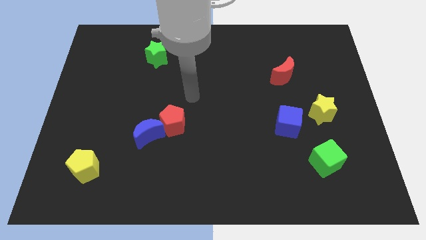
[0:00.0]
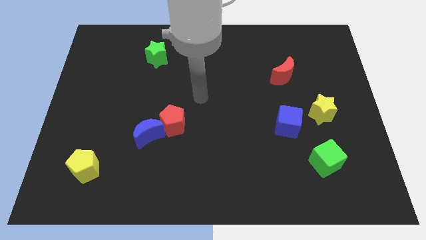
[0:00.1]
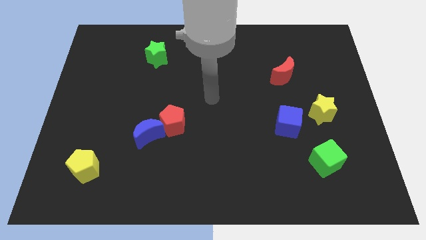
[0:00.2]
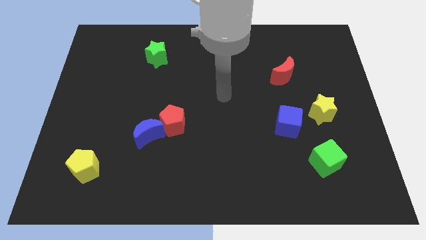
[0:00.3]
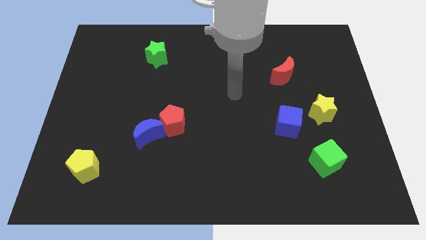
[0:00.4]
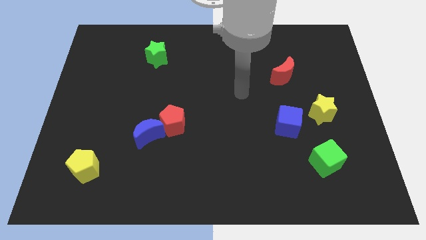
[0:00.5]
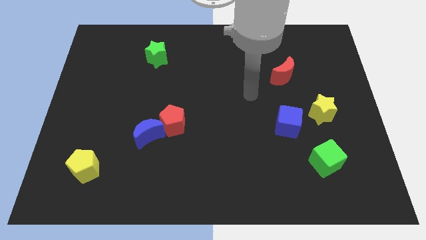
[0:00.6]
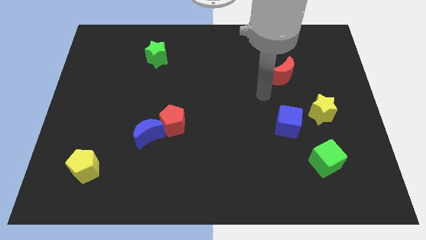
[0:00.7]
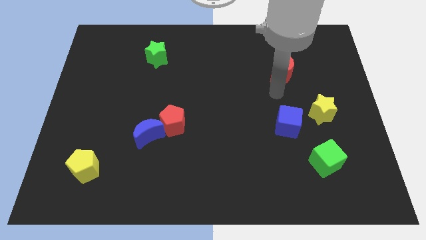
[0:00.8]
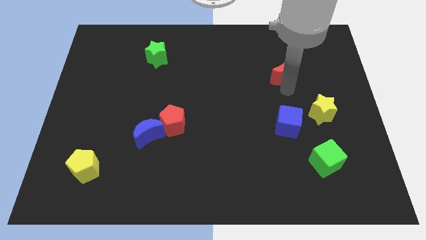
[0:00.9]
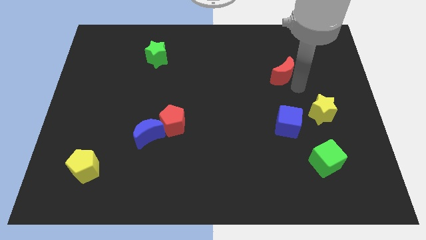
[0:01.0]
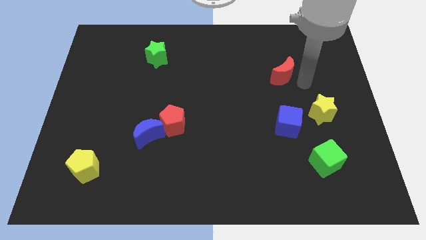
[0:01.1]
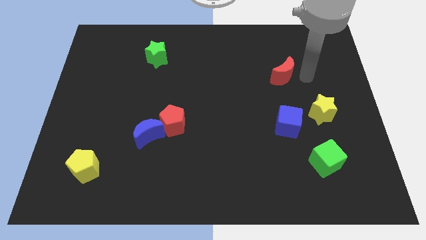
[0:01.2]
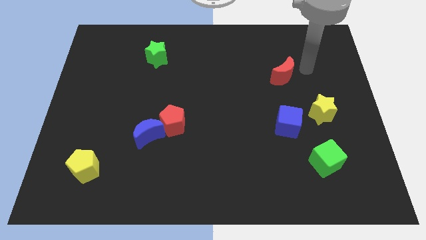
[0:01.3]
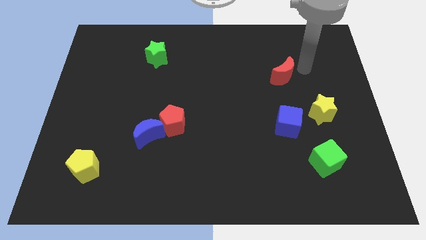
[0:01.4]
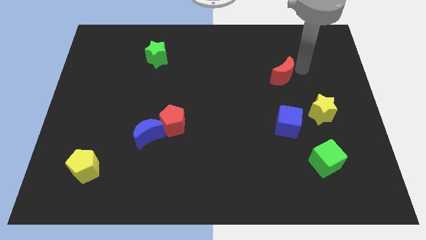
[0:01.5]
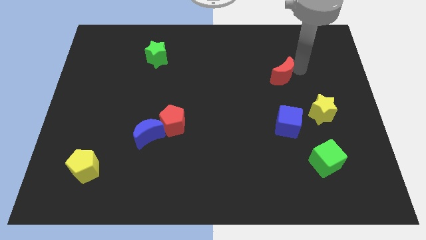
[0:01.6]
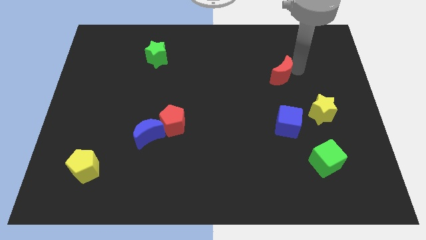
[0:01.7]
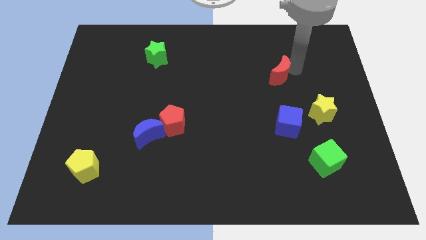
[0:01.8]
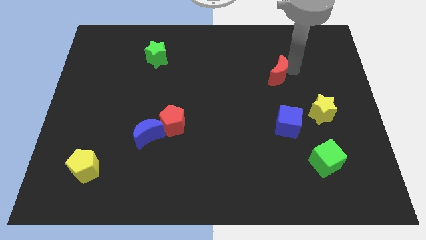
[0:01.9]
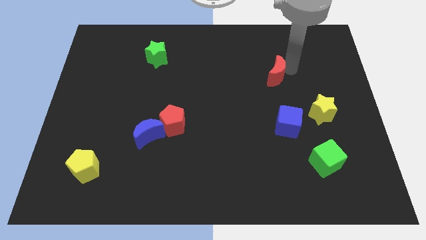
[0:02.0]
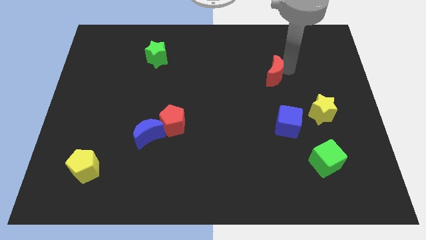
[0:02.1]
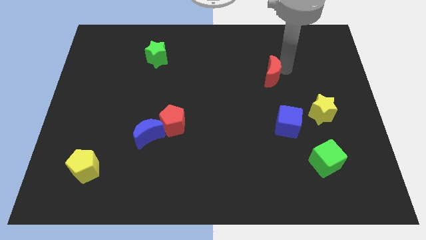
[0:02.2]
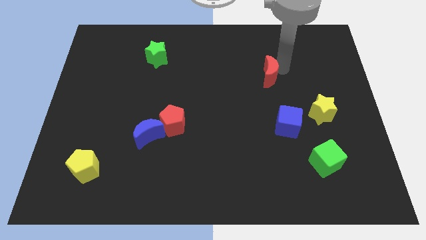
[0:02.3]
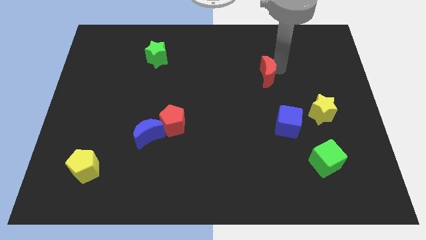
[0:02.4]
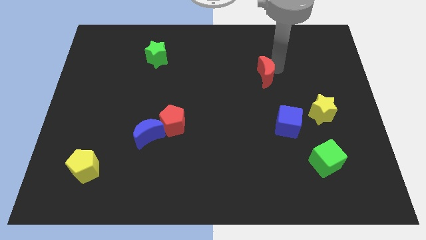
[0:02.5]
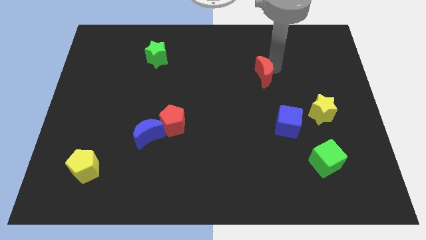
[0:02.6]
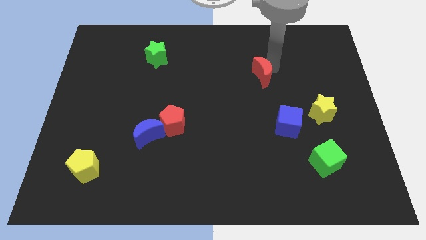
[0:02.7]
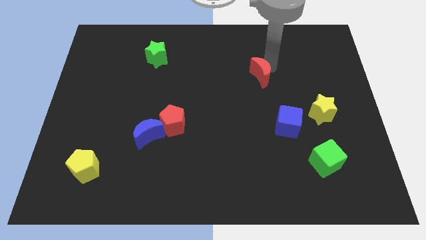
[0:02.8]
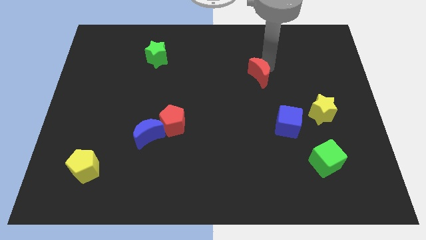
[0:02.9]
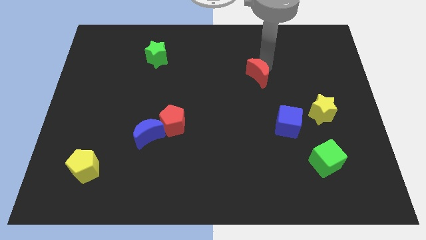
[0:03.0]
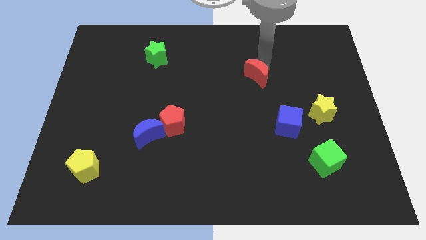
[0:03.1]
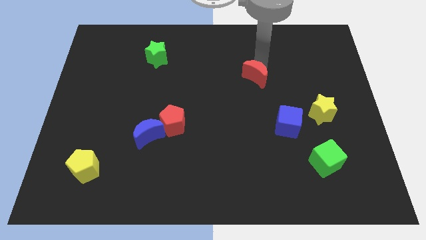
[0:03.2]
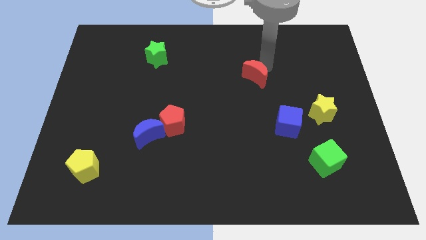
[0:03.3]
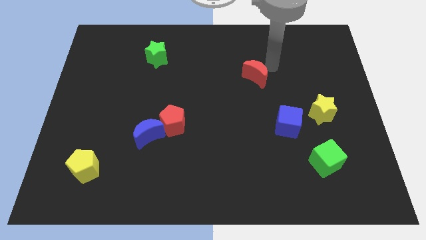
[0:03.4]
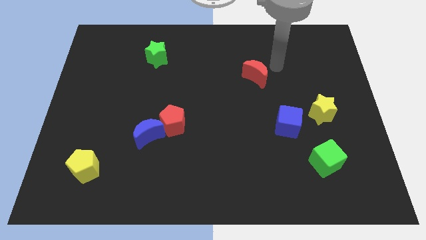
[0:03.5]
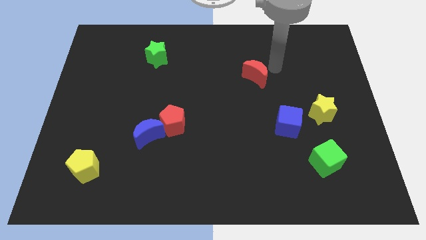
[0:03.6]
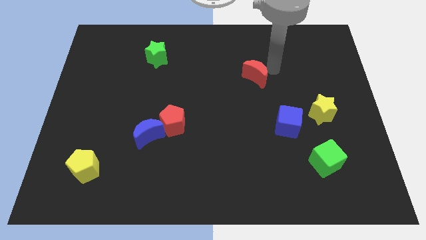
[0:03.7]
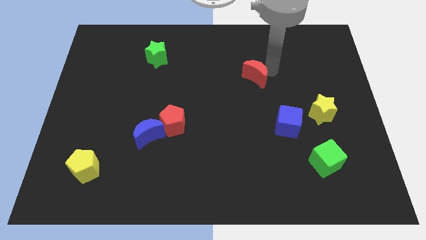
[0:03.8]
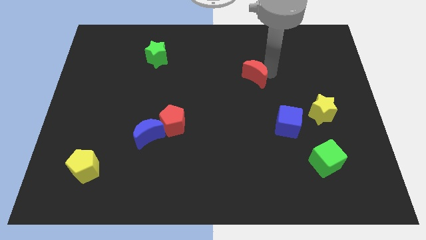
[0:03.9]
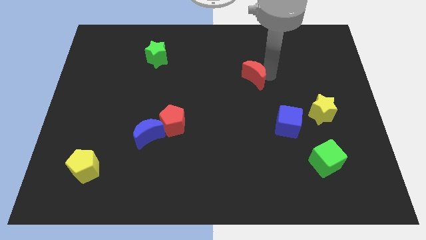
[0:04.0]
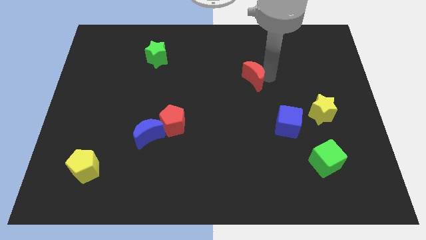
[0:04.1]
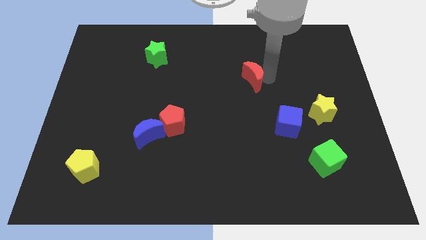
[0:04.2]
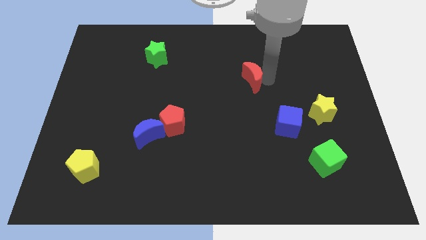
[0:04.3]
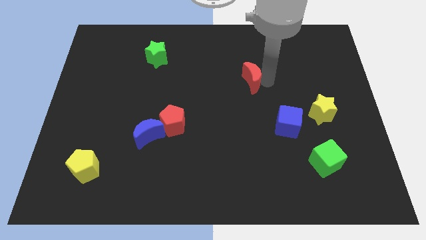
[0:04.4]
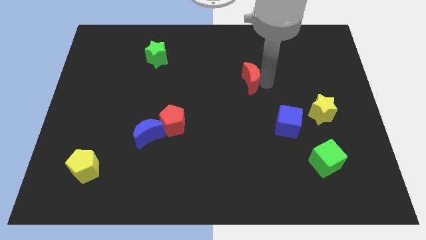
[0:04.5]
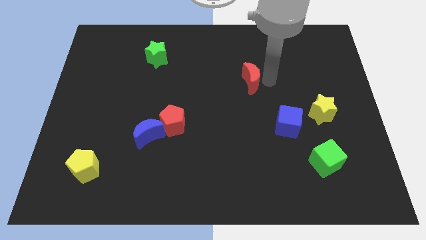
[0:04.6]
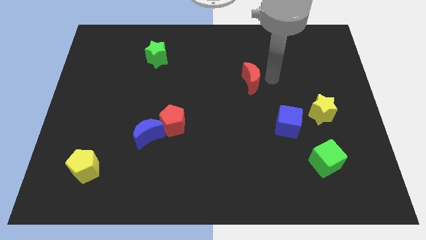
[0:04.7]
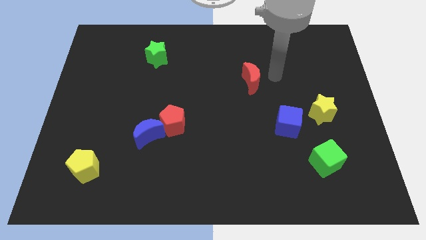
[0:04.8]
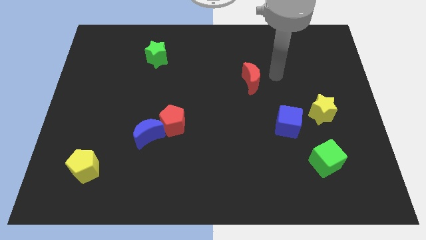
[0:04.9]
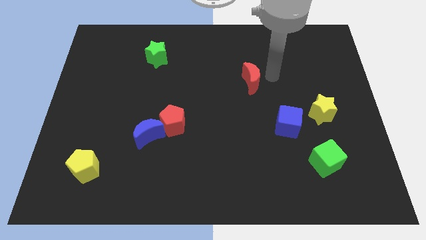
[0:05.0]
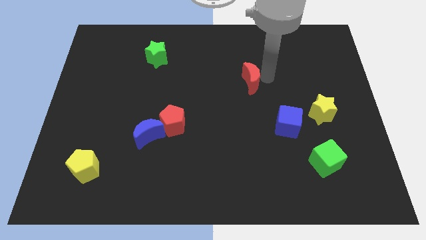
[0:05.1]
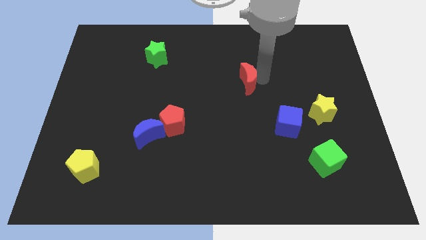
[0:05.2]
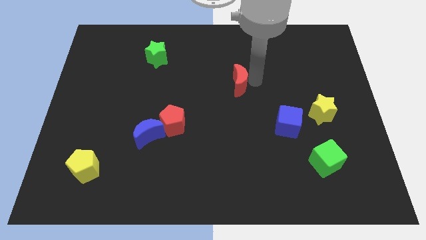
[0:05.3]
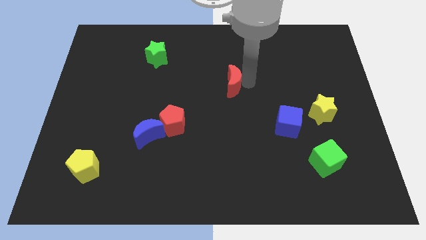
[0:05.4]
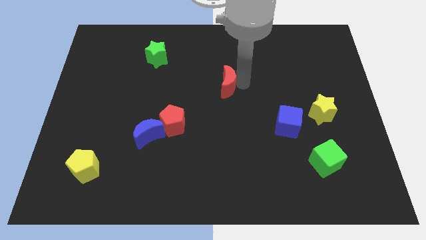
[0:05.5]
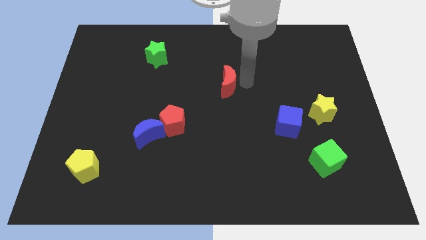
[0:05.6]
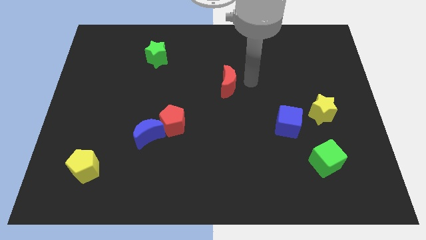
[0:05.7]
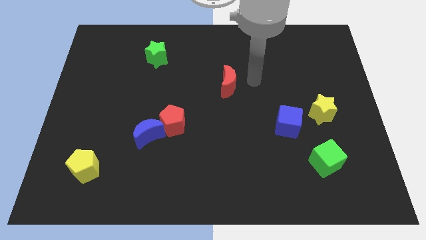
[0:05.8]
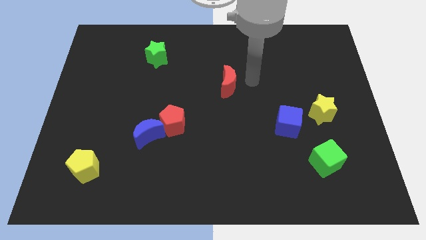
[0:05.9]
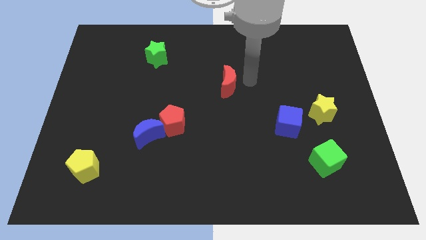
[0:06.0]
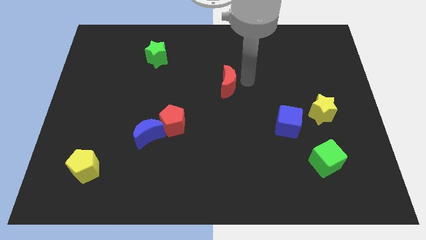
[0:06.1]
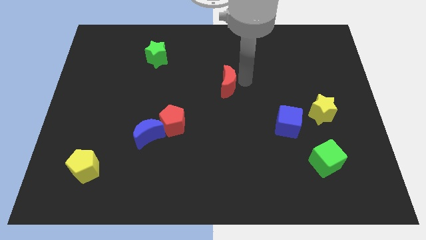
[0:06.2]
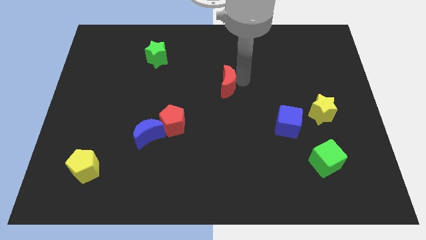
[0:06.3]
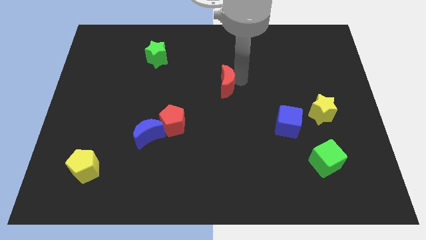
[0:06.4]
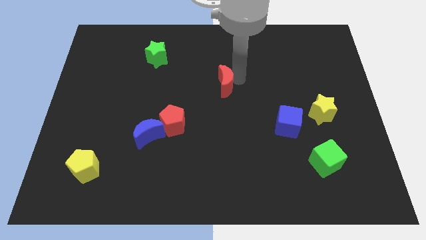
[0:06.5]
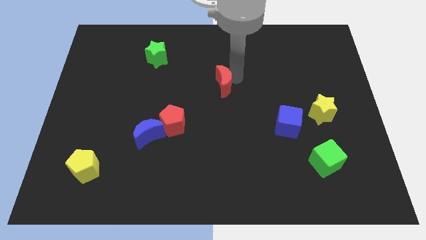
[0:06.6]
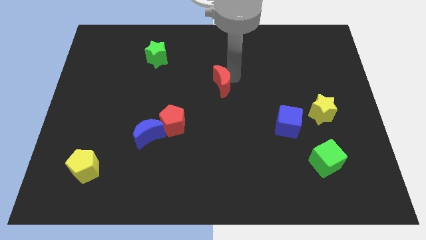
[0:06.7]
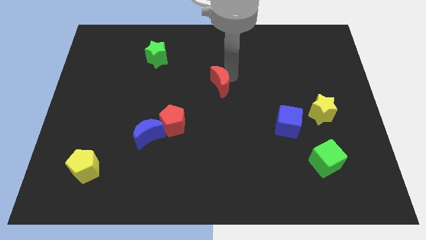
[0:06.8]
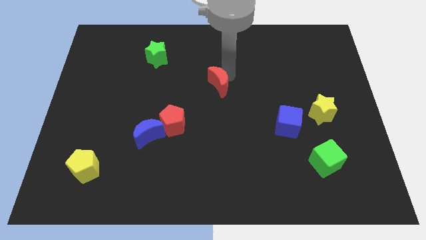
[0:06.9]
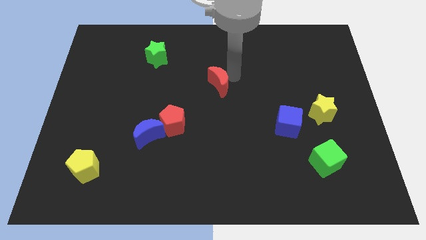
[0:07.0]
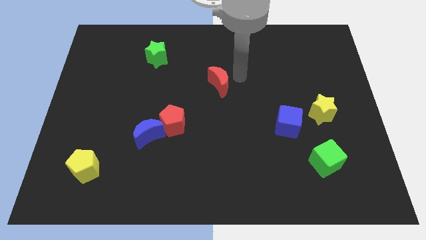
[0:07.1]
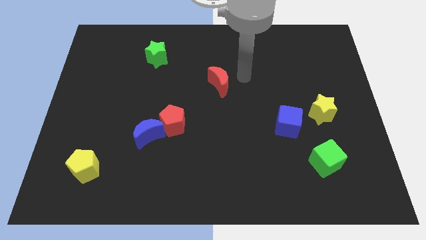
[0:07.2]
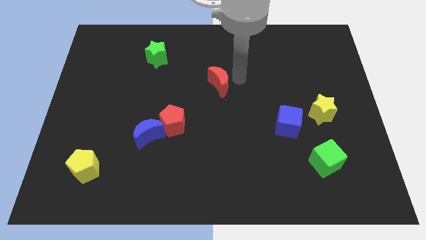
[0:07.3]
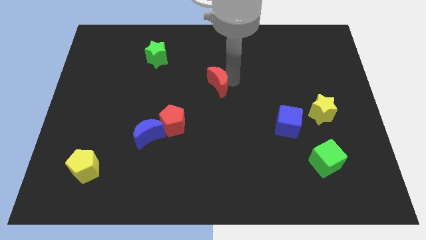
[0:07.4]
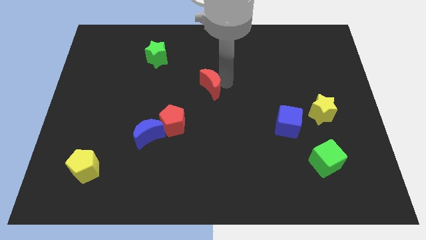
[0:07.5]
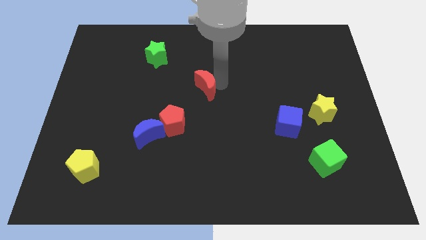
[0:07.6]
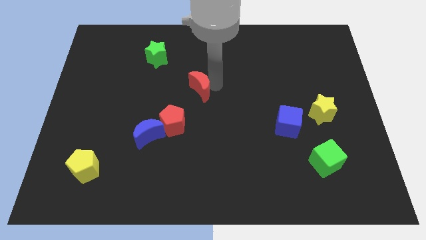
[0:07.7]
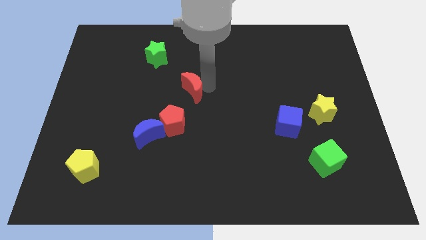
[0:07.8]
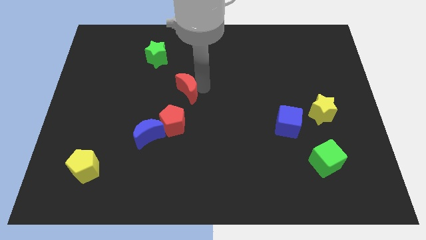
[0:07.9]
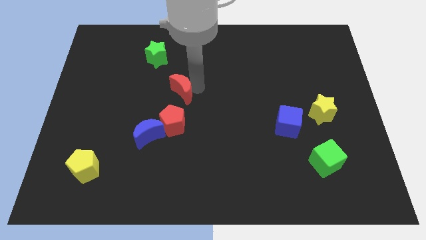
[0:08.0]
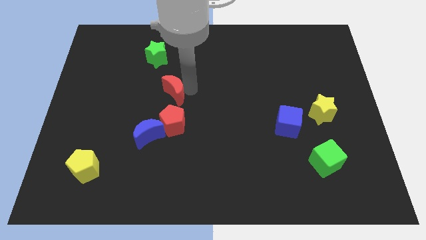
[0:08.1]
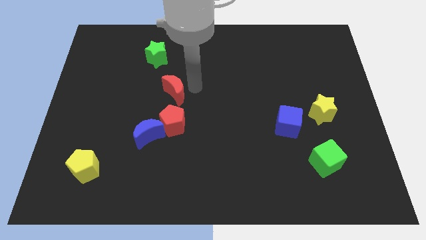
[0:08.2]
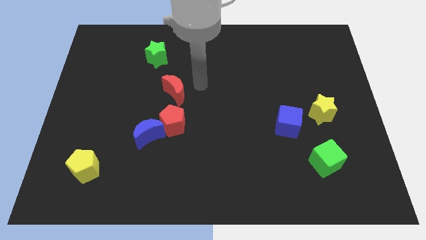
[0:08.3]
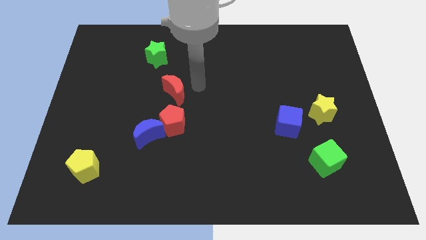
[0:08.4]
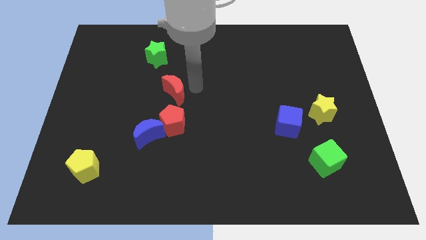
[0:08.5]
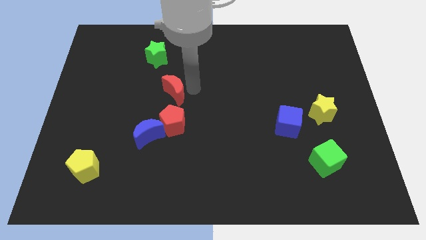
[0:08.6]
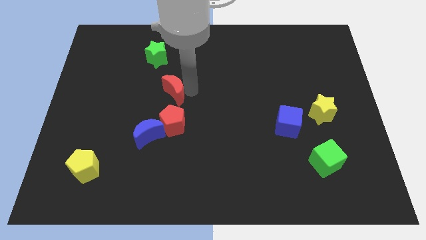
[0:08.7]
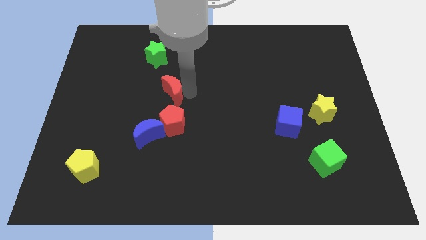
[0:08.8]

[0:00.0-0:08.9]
put the red moon above the blue moon
